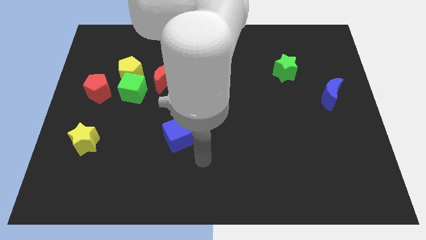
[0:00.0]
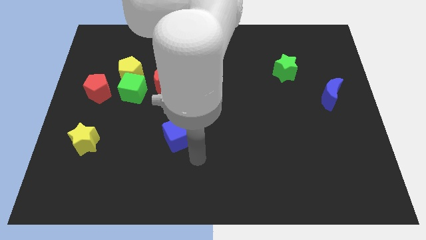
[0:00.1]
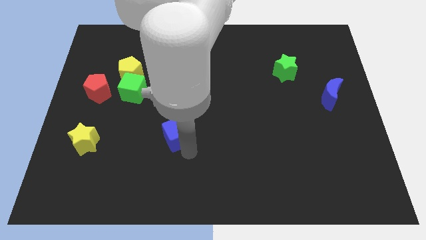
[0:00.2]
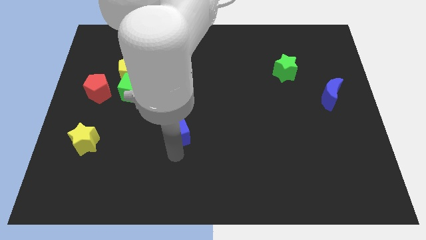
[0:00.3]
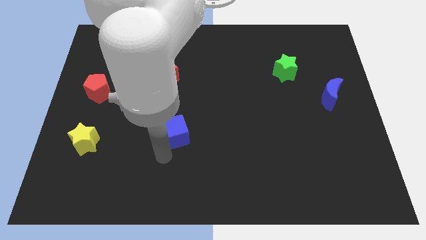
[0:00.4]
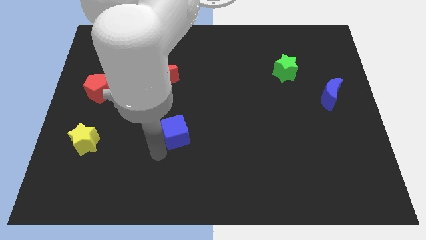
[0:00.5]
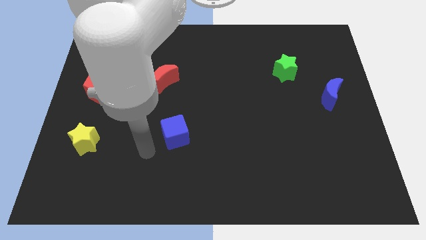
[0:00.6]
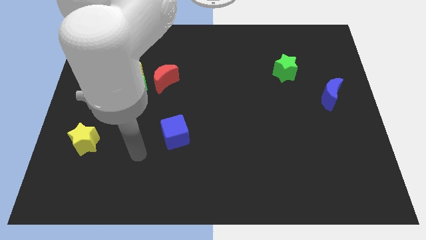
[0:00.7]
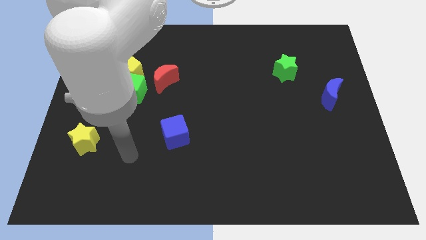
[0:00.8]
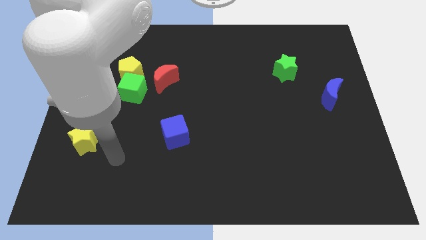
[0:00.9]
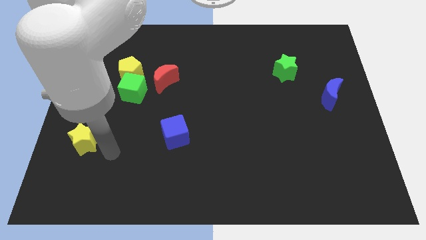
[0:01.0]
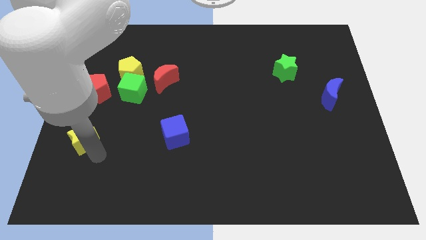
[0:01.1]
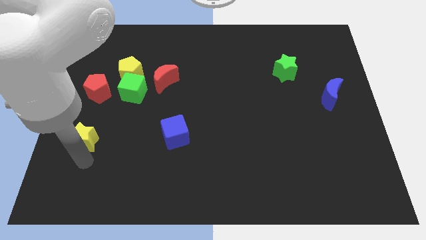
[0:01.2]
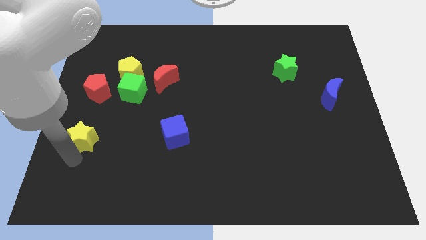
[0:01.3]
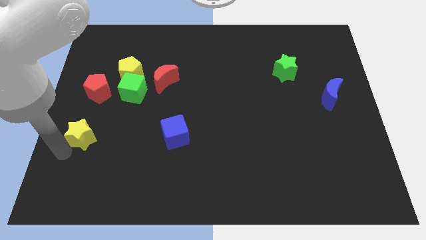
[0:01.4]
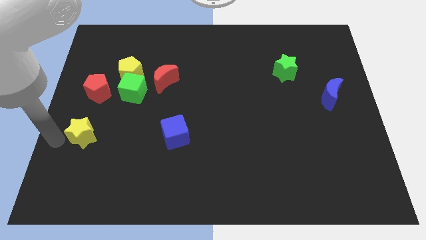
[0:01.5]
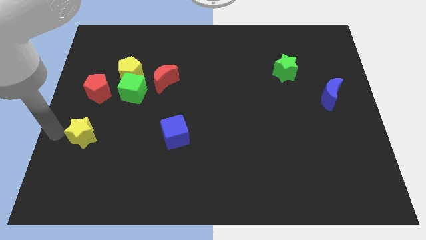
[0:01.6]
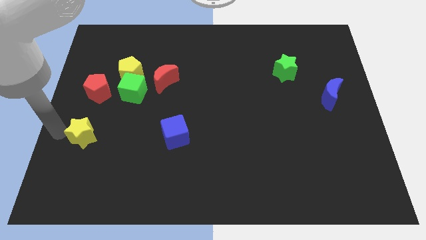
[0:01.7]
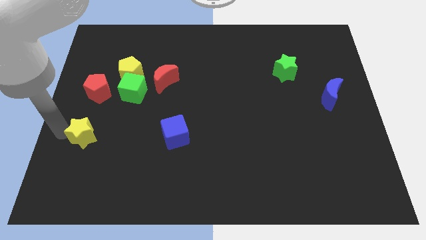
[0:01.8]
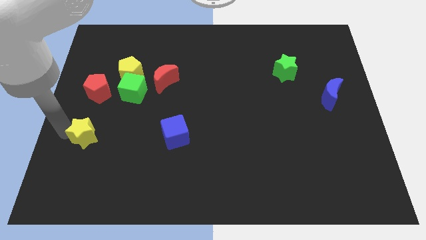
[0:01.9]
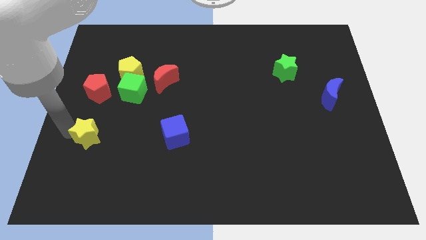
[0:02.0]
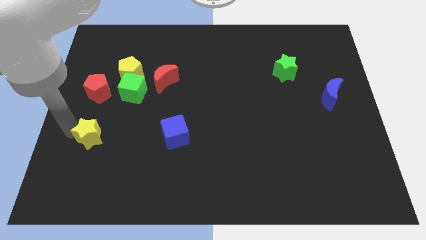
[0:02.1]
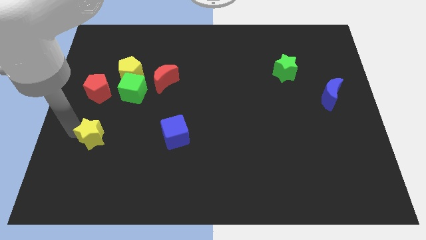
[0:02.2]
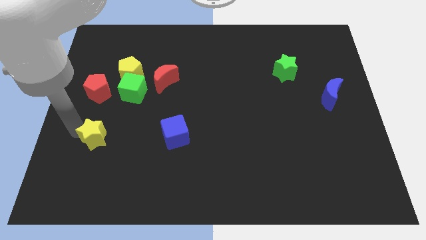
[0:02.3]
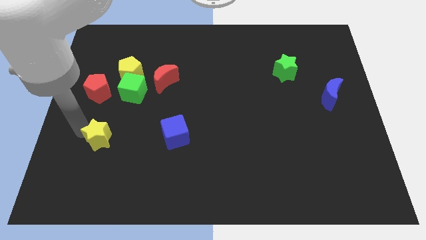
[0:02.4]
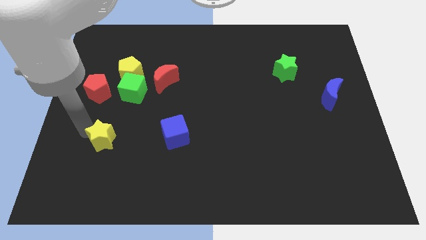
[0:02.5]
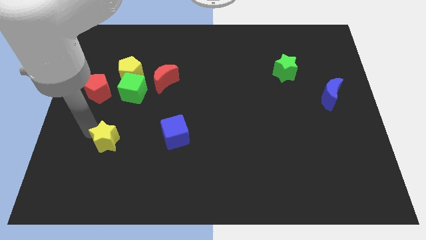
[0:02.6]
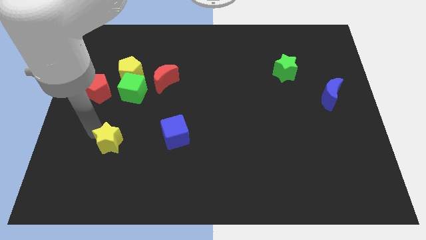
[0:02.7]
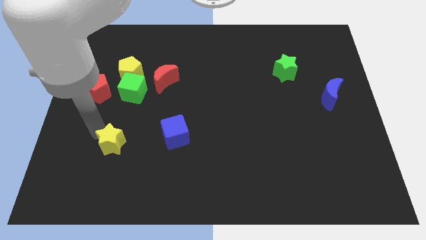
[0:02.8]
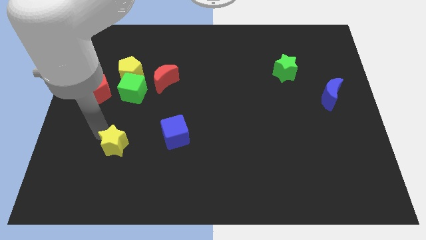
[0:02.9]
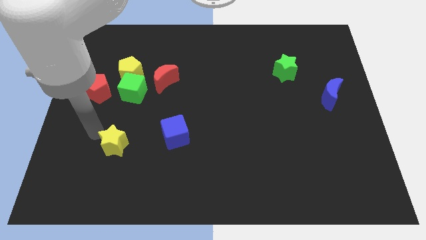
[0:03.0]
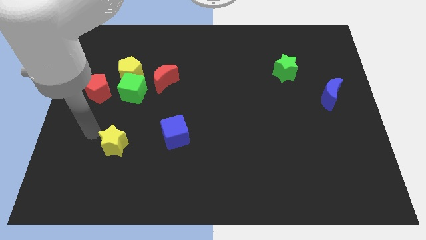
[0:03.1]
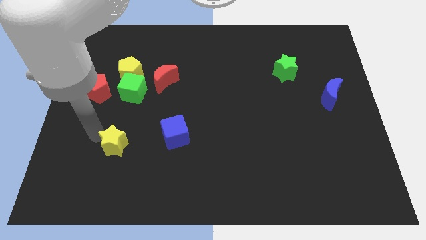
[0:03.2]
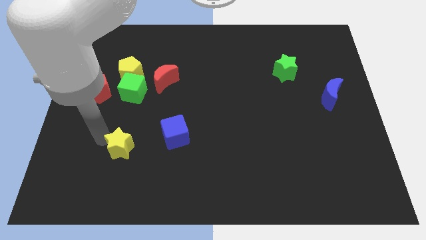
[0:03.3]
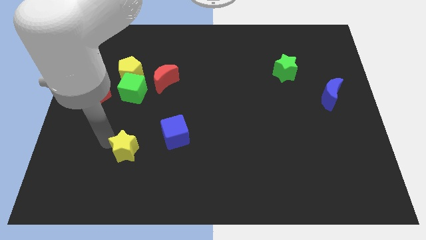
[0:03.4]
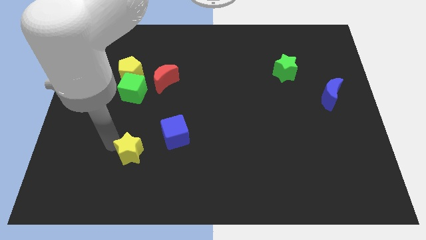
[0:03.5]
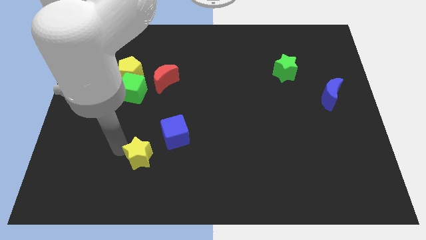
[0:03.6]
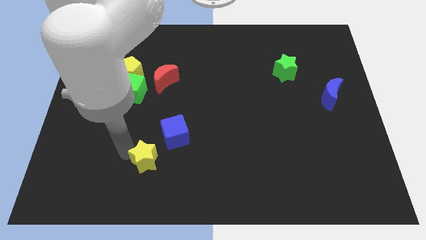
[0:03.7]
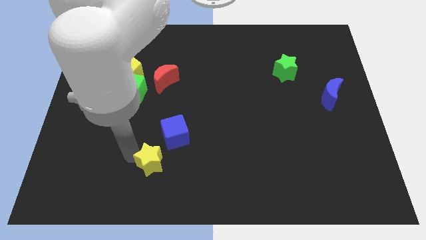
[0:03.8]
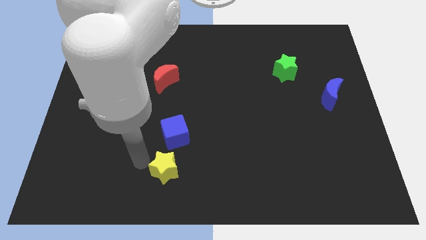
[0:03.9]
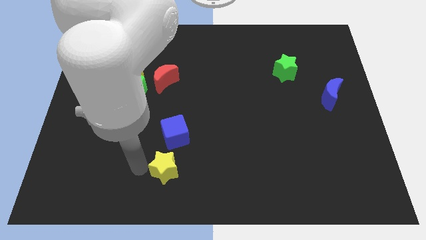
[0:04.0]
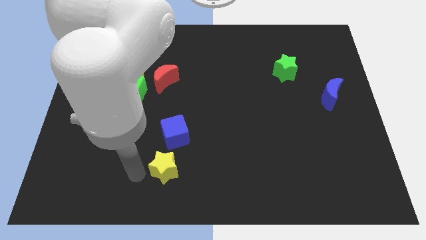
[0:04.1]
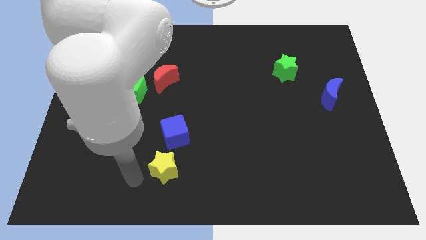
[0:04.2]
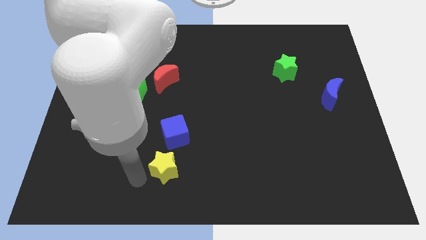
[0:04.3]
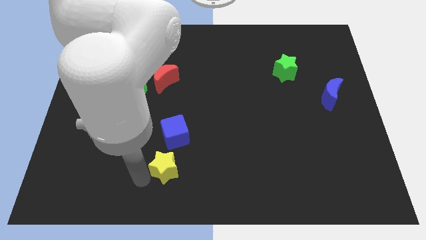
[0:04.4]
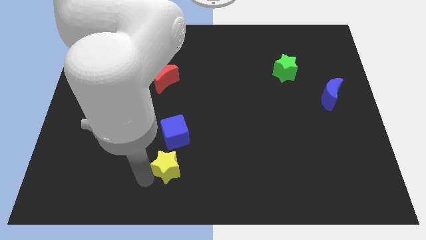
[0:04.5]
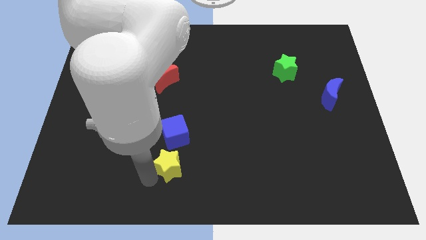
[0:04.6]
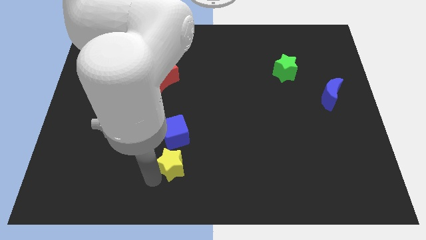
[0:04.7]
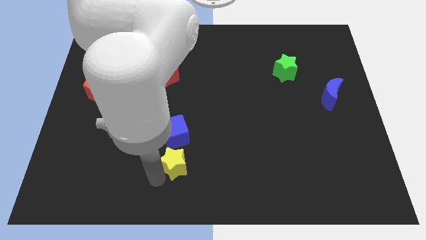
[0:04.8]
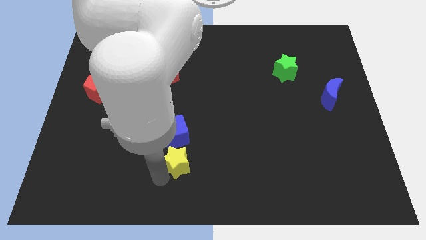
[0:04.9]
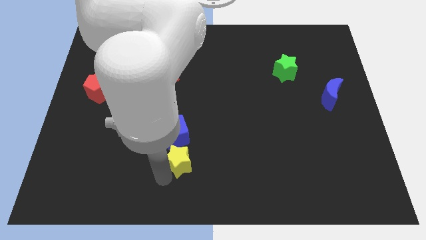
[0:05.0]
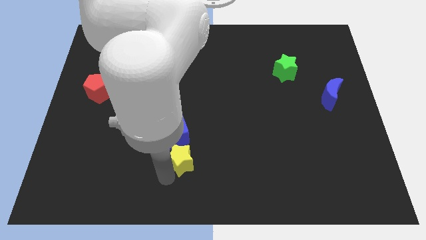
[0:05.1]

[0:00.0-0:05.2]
slide the yellow star right

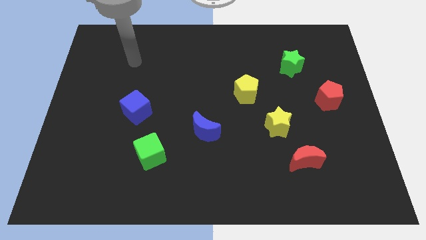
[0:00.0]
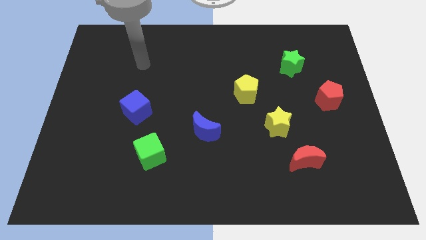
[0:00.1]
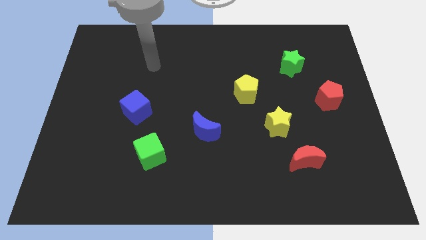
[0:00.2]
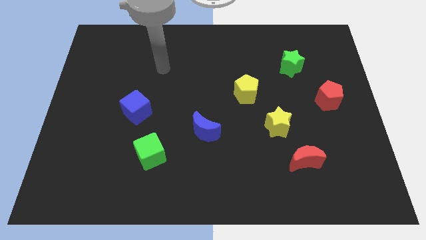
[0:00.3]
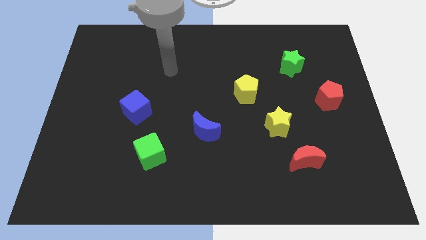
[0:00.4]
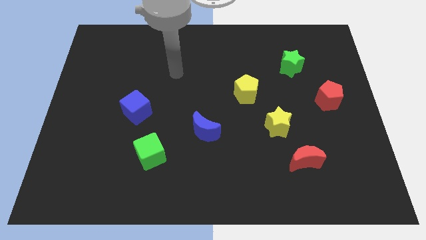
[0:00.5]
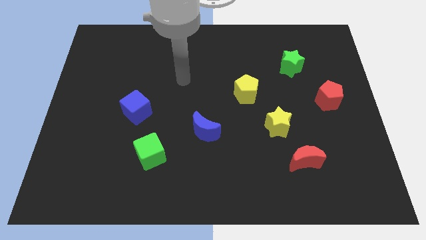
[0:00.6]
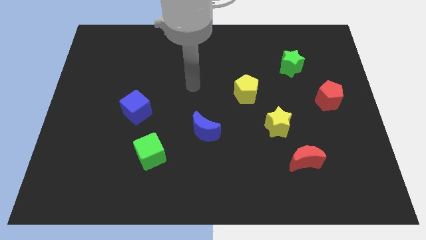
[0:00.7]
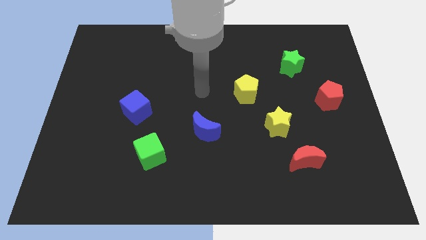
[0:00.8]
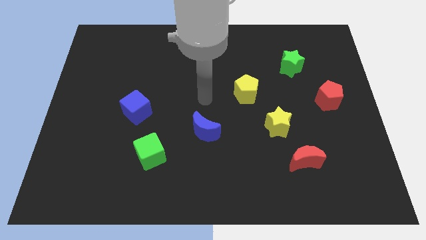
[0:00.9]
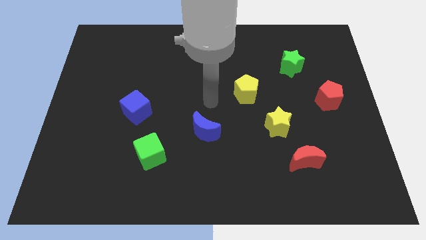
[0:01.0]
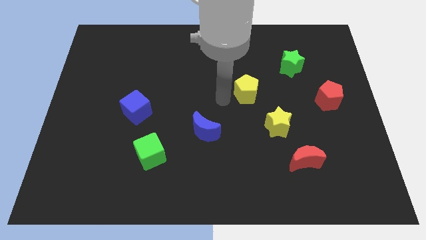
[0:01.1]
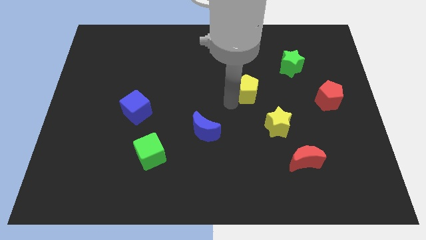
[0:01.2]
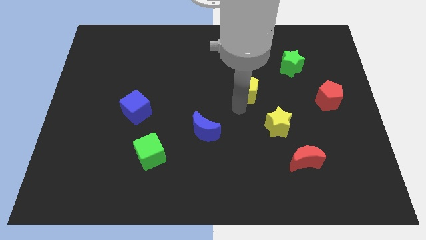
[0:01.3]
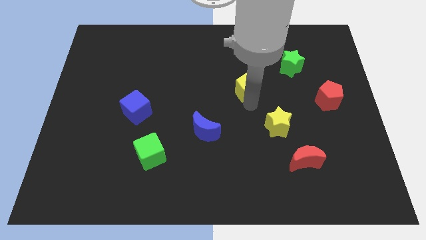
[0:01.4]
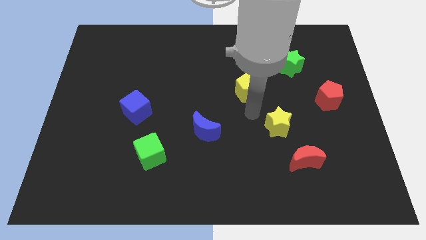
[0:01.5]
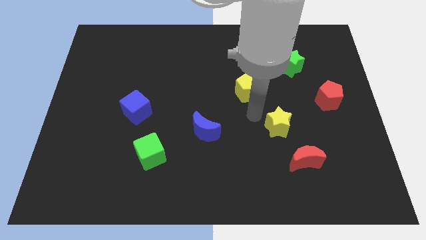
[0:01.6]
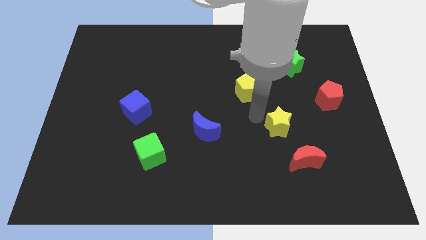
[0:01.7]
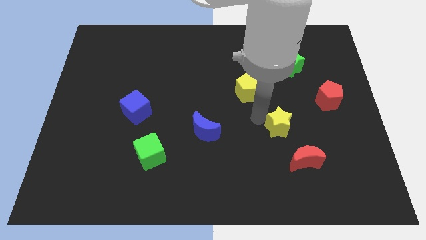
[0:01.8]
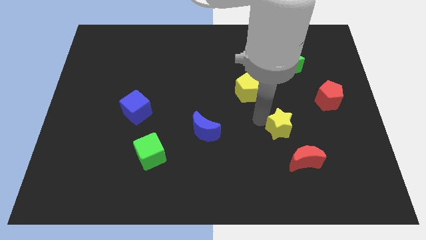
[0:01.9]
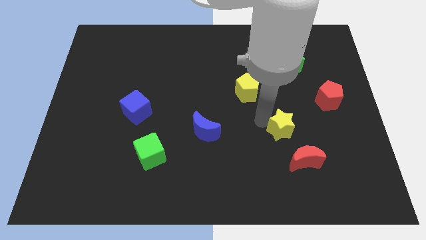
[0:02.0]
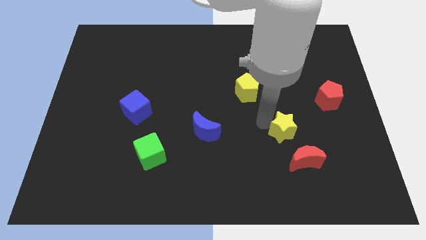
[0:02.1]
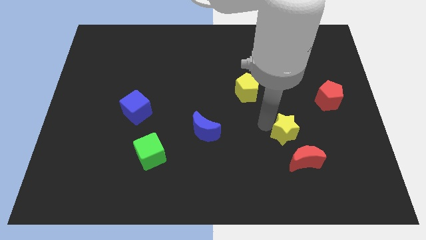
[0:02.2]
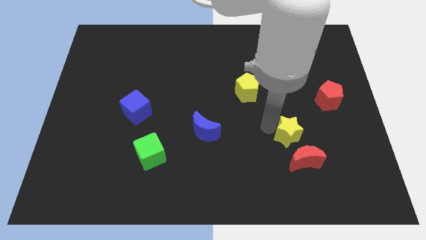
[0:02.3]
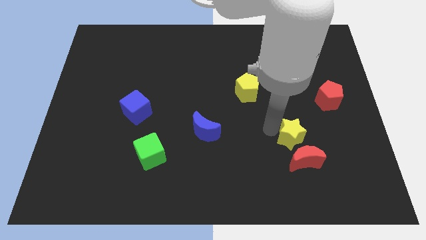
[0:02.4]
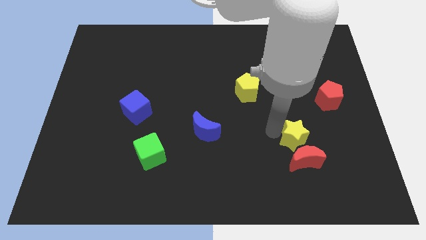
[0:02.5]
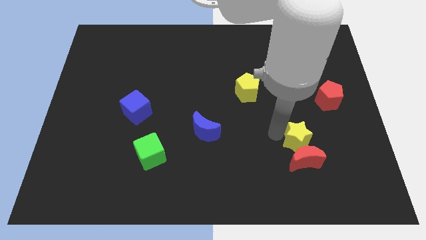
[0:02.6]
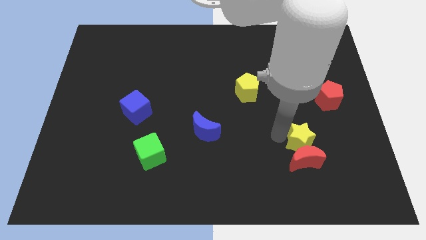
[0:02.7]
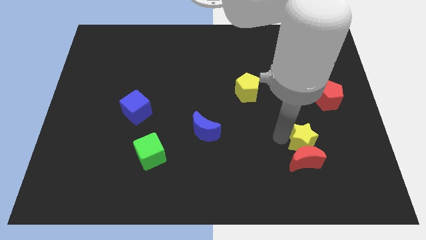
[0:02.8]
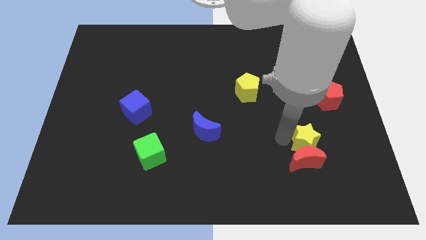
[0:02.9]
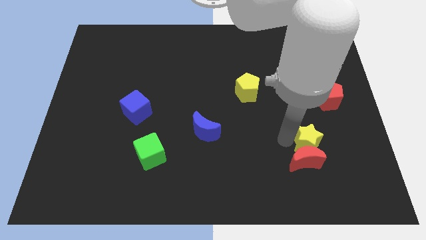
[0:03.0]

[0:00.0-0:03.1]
slightly move the yellow star down and then right

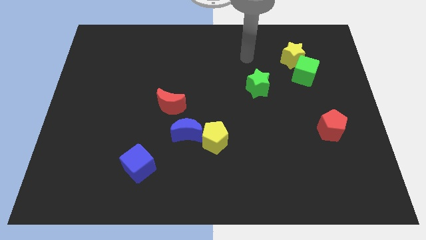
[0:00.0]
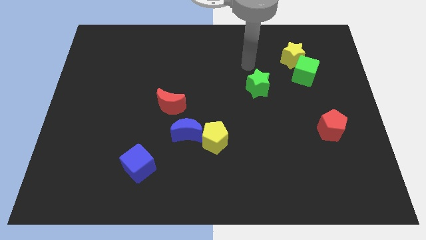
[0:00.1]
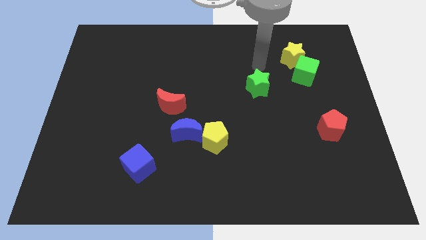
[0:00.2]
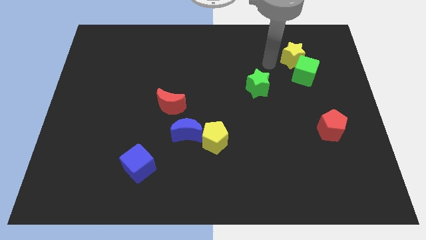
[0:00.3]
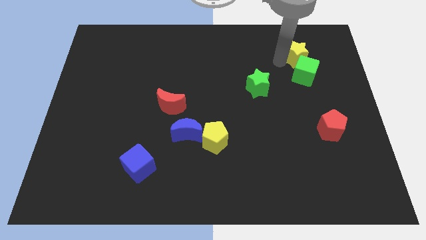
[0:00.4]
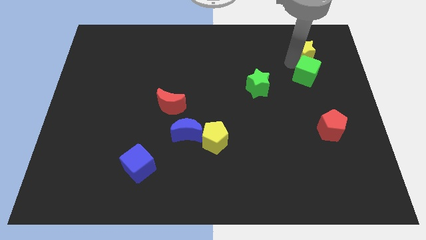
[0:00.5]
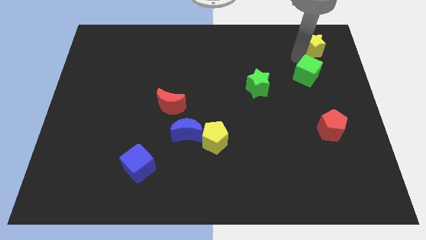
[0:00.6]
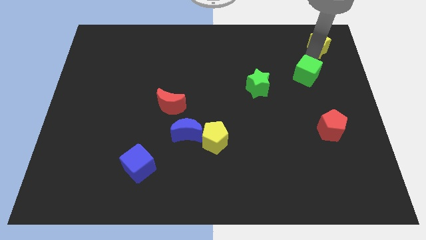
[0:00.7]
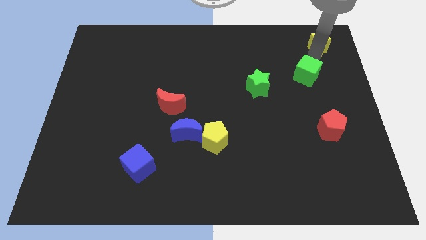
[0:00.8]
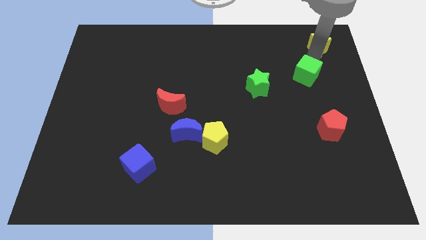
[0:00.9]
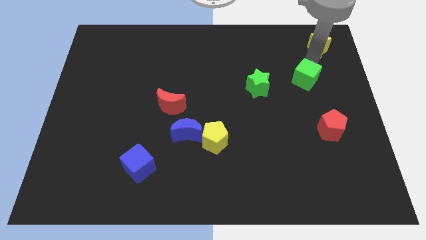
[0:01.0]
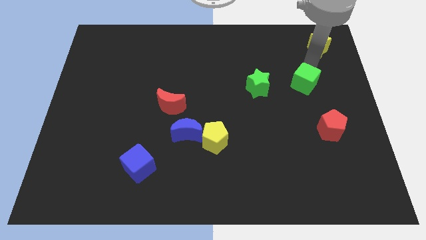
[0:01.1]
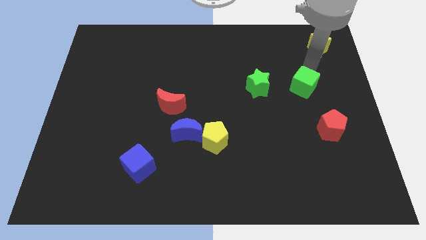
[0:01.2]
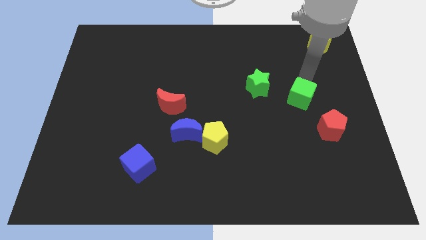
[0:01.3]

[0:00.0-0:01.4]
slide the green cube somewhat down
